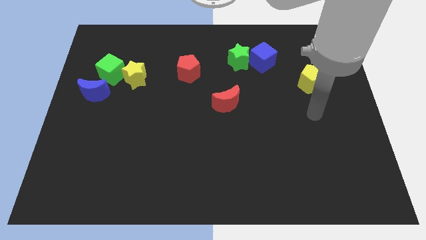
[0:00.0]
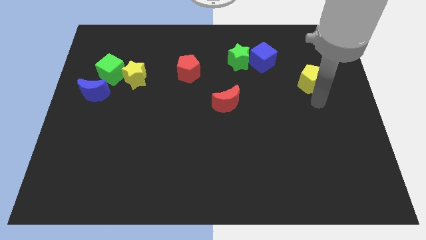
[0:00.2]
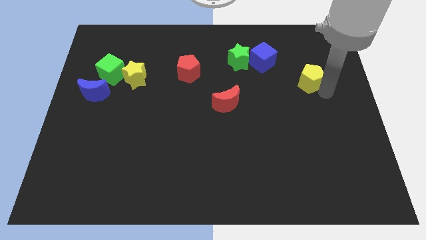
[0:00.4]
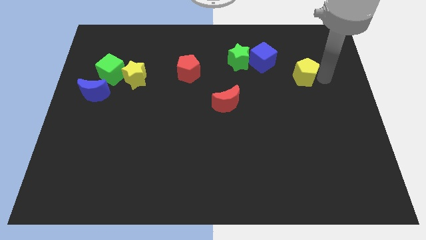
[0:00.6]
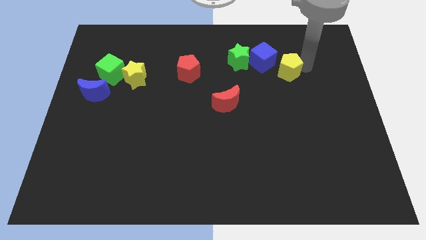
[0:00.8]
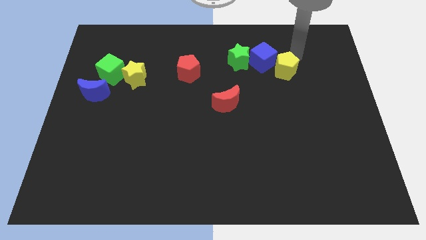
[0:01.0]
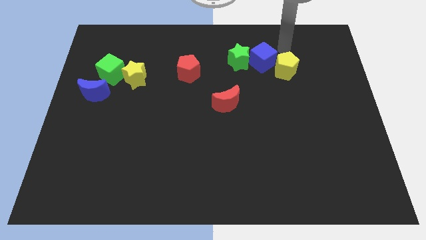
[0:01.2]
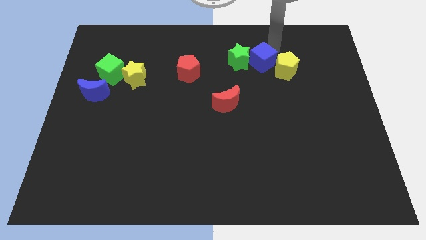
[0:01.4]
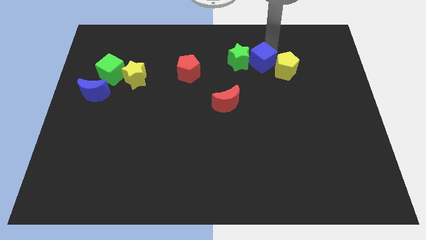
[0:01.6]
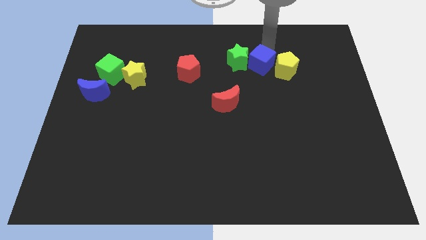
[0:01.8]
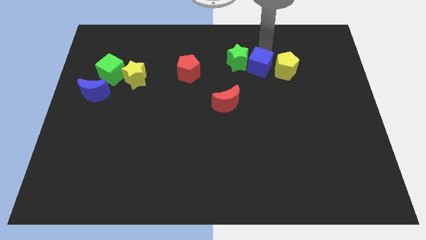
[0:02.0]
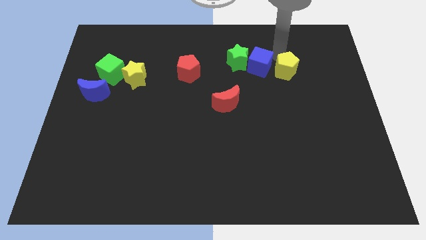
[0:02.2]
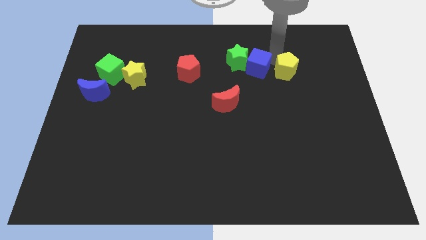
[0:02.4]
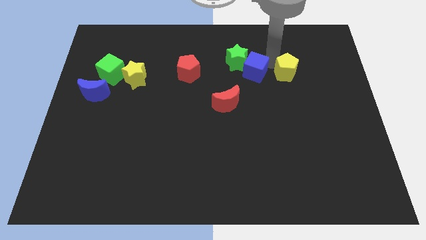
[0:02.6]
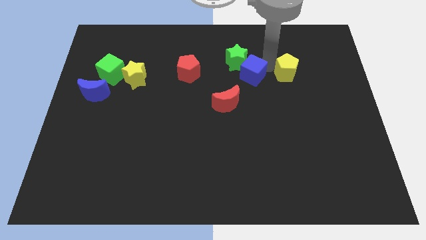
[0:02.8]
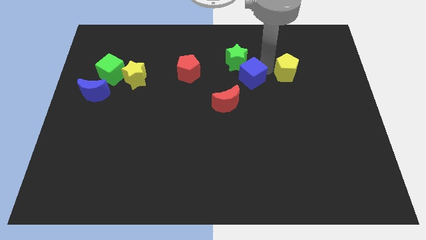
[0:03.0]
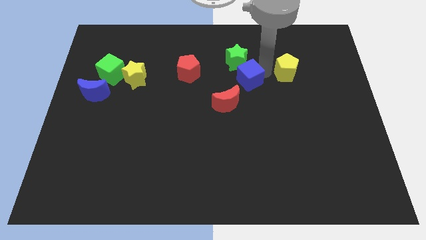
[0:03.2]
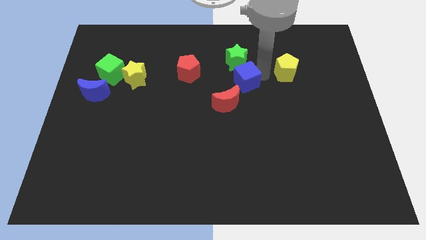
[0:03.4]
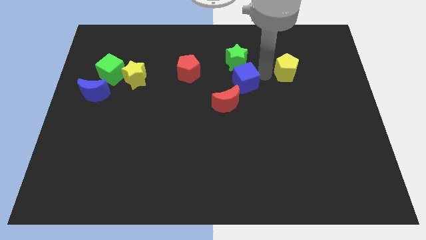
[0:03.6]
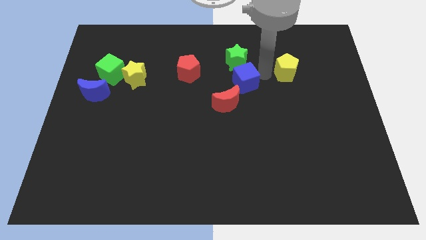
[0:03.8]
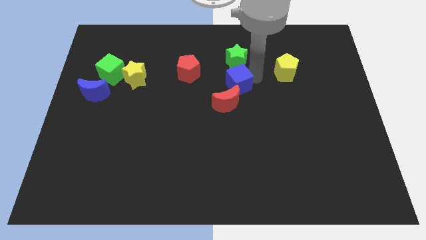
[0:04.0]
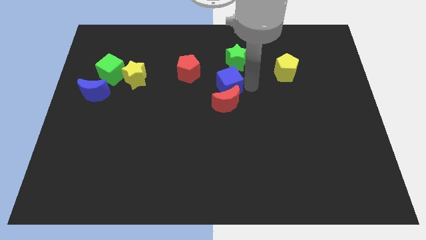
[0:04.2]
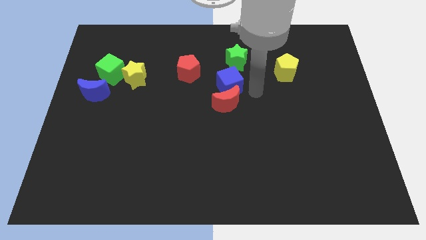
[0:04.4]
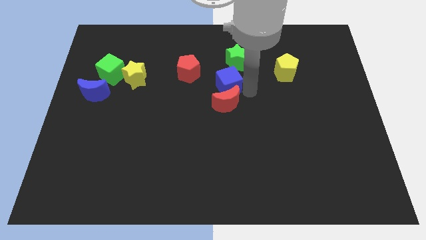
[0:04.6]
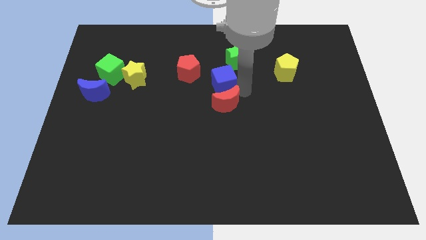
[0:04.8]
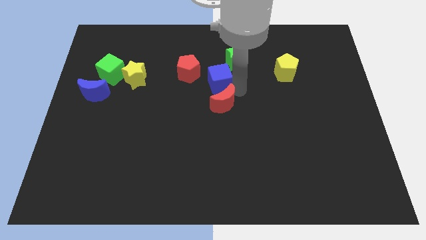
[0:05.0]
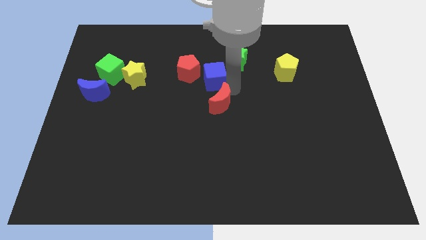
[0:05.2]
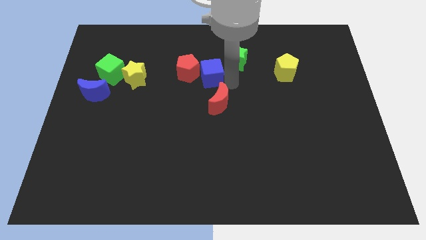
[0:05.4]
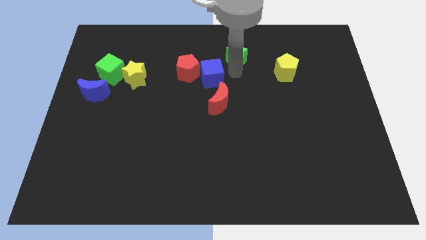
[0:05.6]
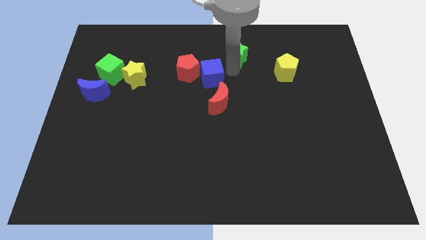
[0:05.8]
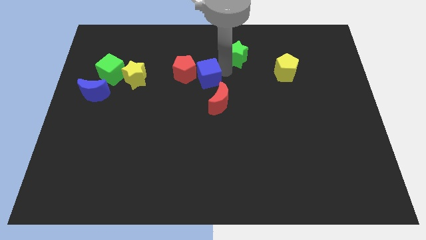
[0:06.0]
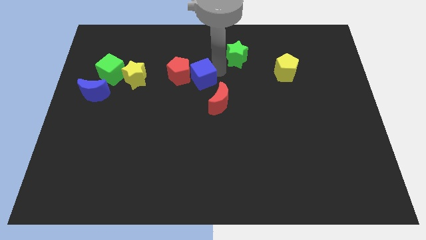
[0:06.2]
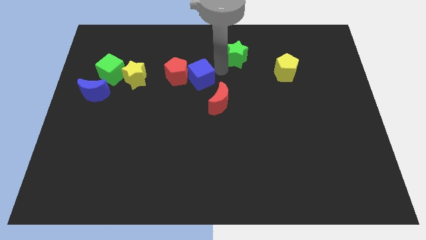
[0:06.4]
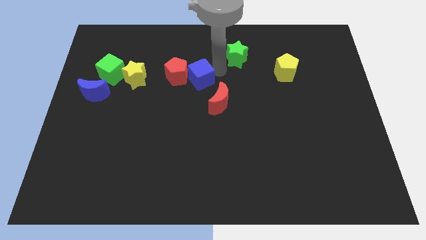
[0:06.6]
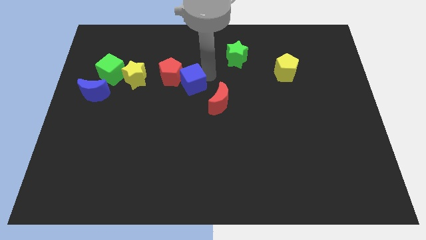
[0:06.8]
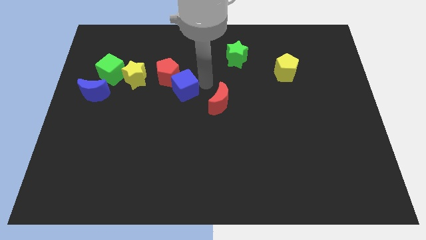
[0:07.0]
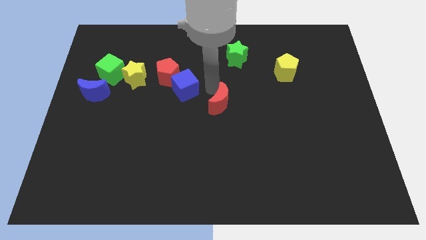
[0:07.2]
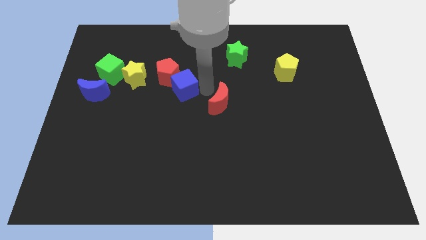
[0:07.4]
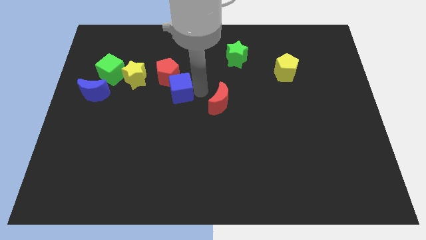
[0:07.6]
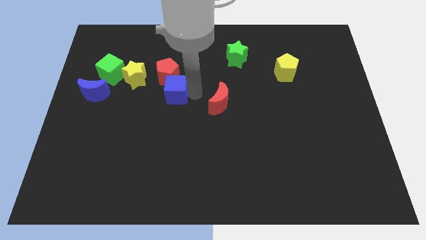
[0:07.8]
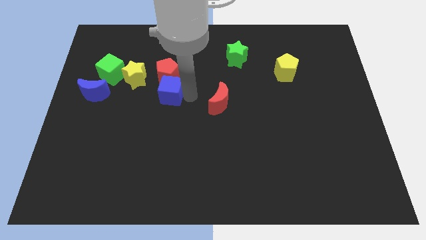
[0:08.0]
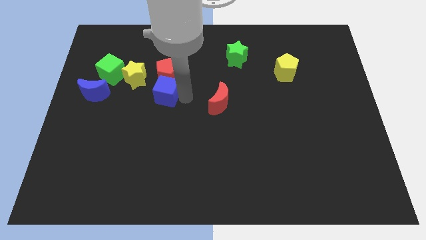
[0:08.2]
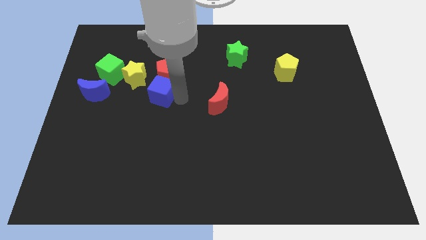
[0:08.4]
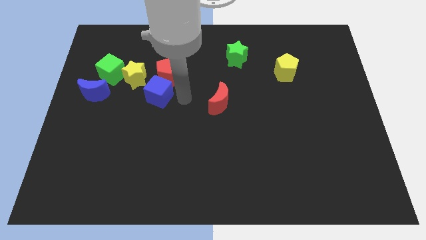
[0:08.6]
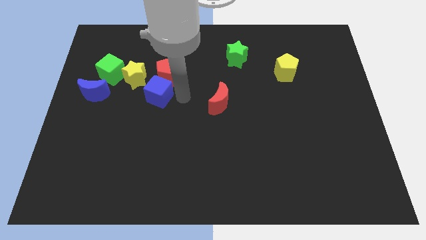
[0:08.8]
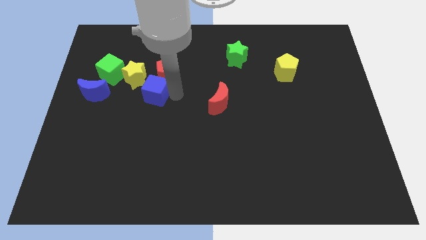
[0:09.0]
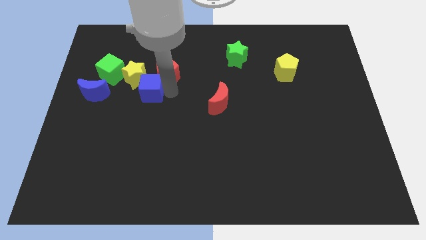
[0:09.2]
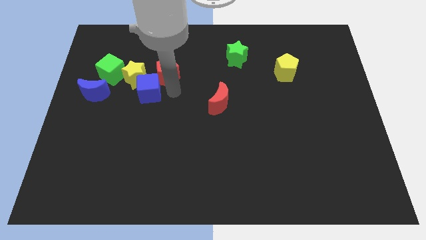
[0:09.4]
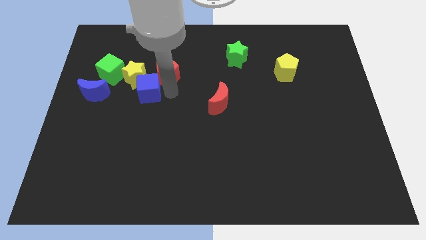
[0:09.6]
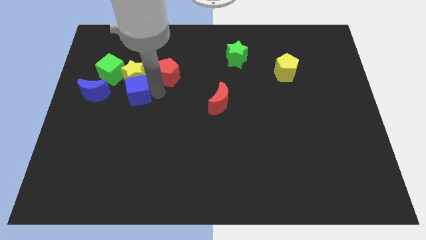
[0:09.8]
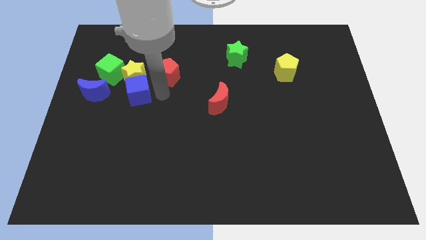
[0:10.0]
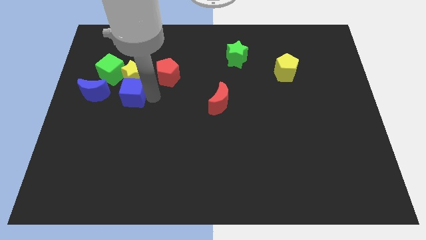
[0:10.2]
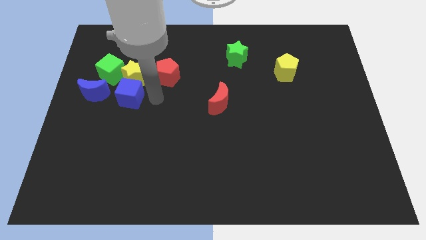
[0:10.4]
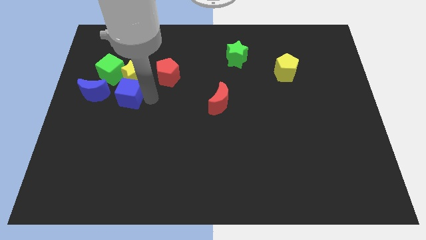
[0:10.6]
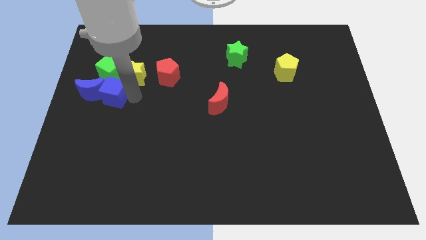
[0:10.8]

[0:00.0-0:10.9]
push the blue cube next to the blue moon

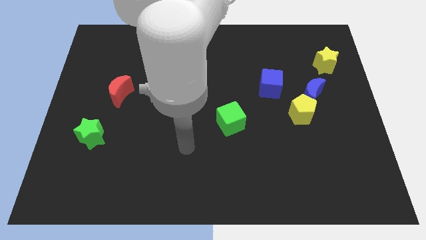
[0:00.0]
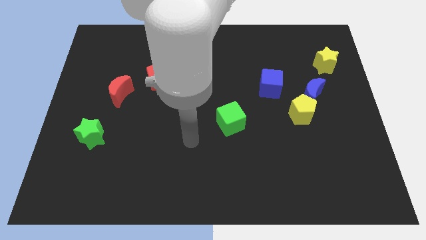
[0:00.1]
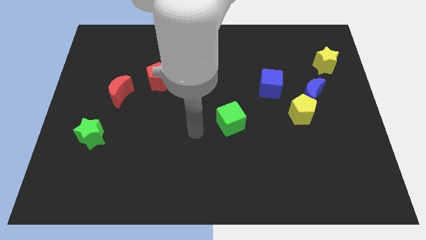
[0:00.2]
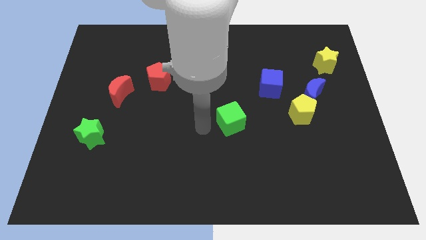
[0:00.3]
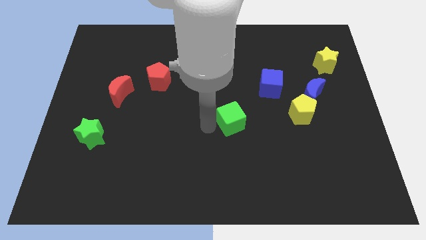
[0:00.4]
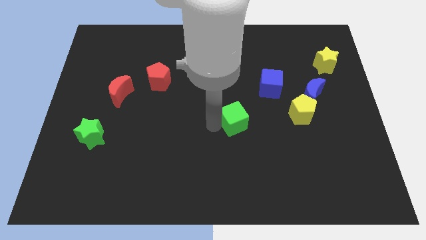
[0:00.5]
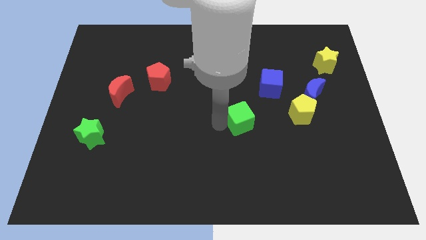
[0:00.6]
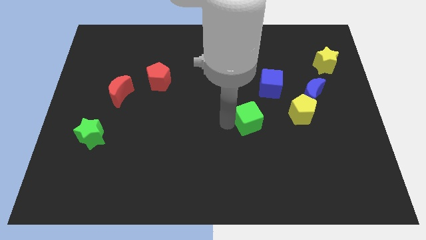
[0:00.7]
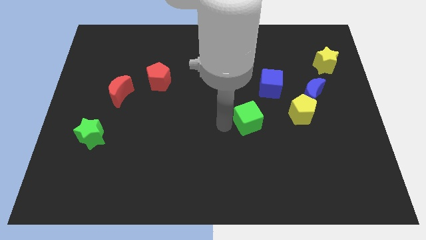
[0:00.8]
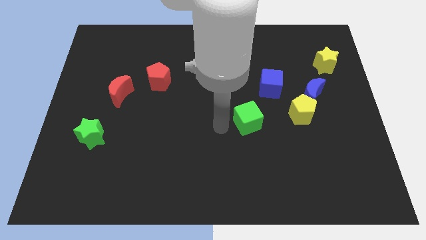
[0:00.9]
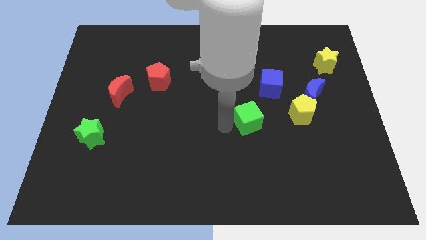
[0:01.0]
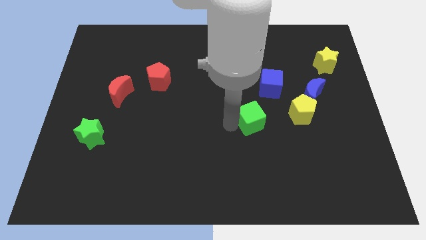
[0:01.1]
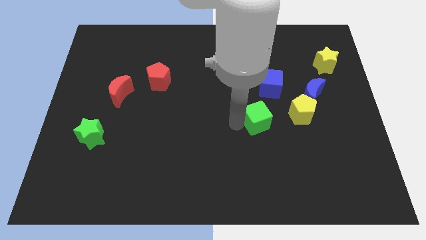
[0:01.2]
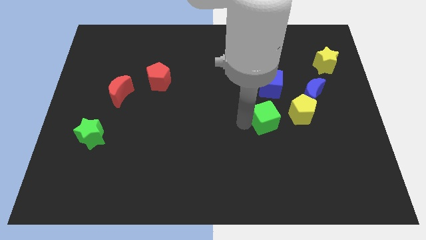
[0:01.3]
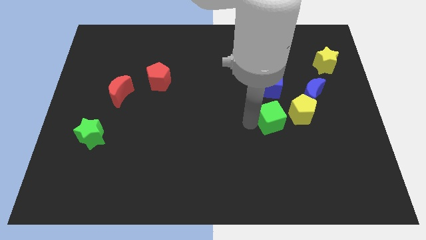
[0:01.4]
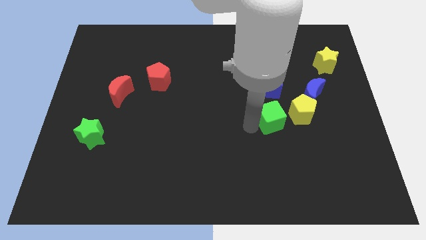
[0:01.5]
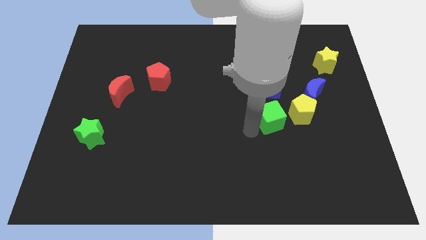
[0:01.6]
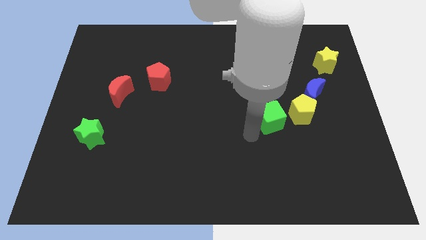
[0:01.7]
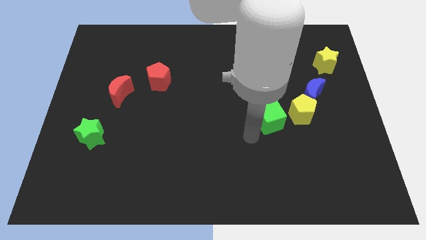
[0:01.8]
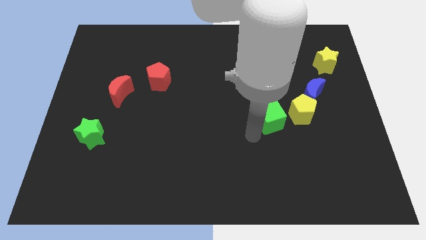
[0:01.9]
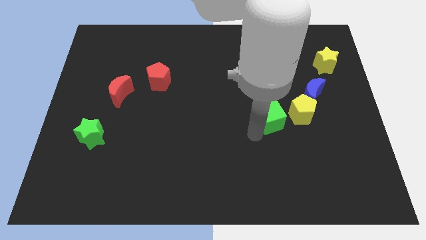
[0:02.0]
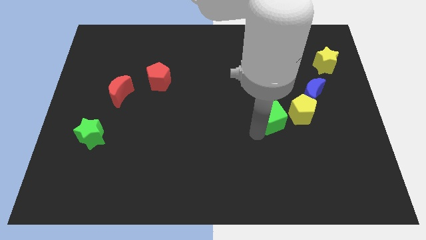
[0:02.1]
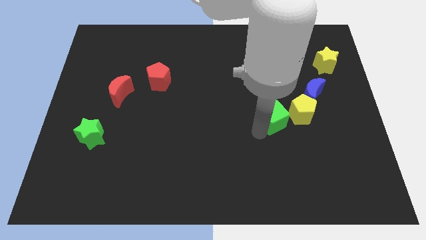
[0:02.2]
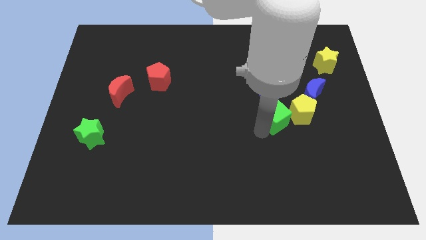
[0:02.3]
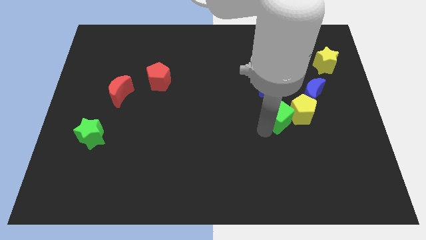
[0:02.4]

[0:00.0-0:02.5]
push the green cube next to the yellow pentagon
